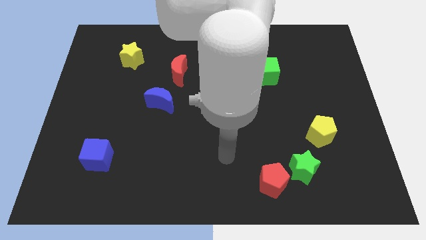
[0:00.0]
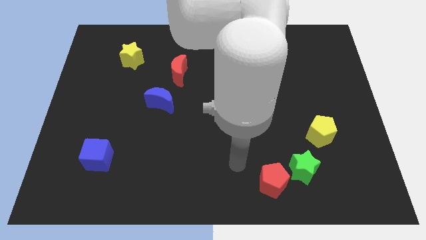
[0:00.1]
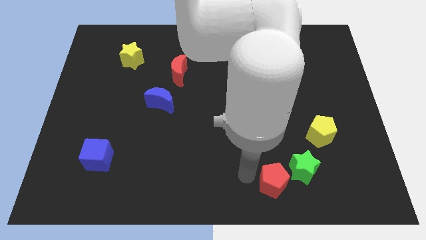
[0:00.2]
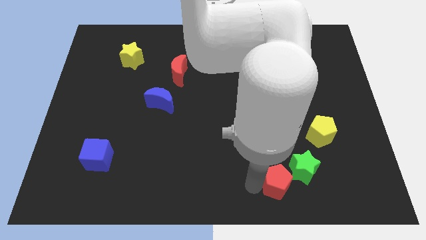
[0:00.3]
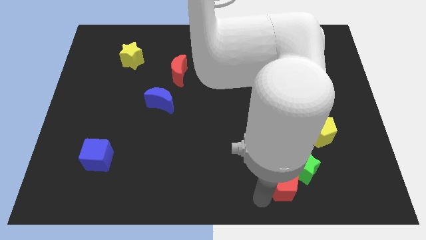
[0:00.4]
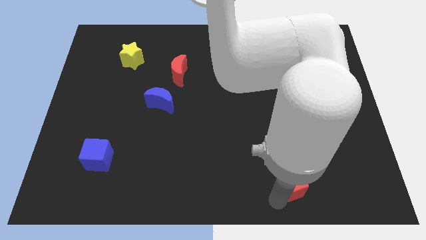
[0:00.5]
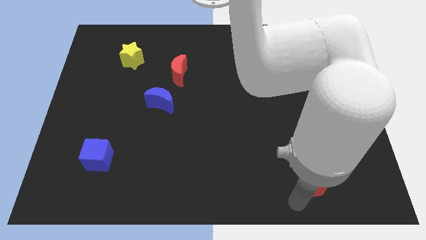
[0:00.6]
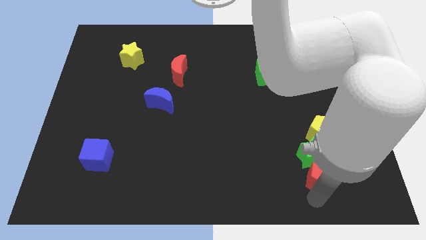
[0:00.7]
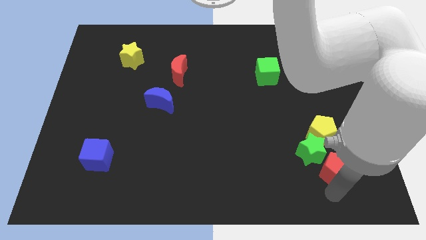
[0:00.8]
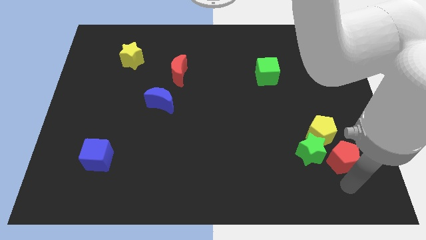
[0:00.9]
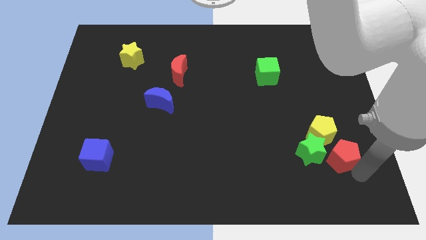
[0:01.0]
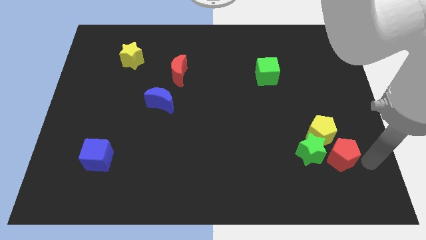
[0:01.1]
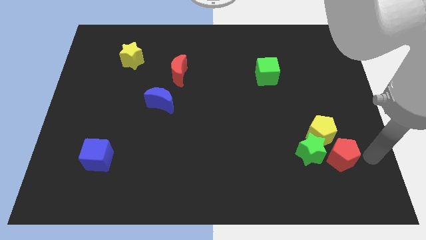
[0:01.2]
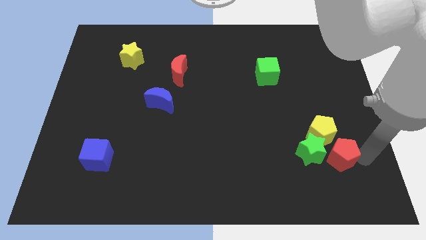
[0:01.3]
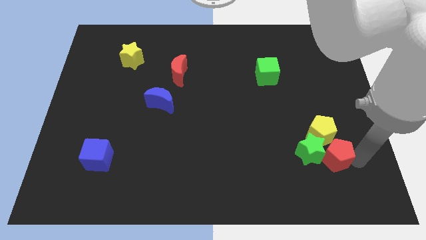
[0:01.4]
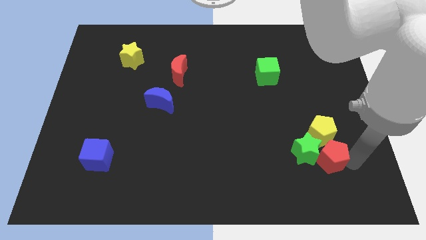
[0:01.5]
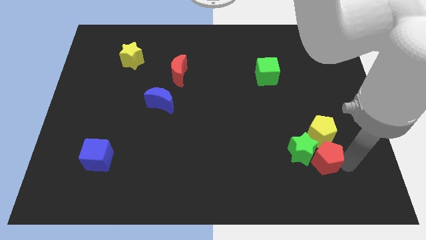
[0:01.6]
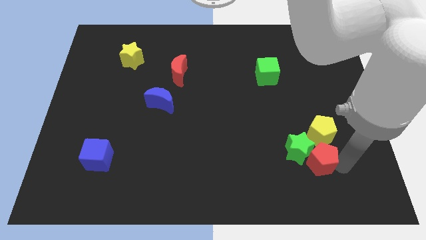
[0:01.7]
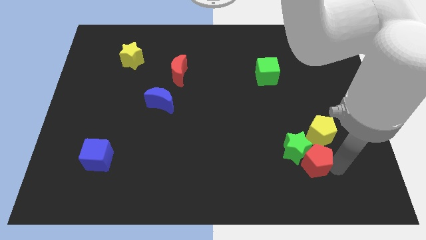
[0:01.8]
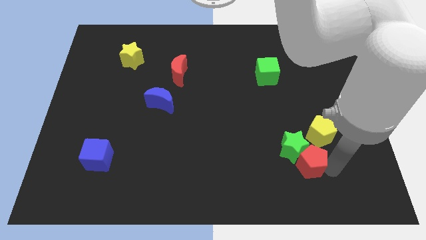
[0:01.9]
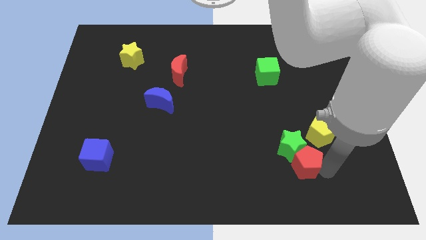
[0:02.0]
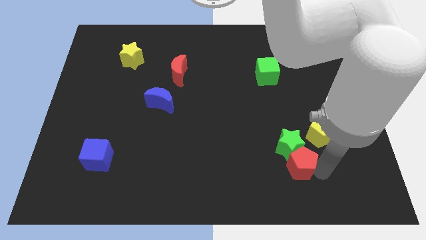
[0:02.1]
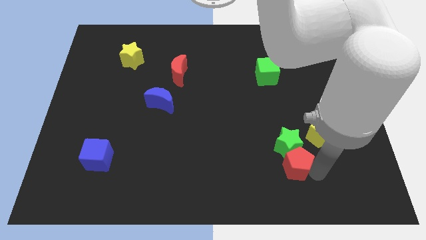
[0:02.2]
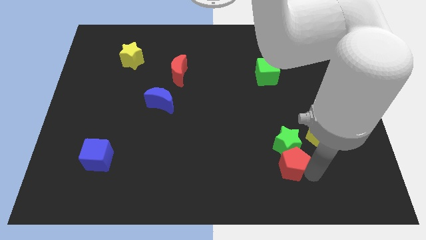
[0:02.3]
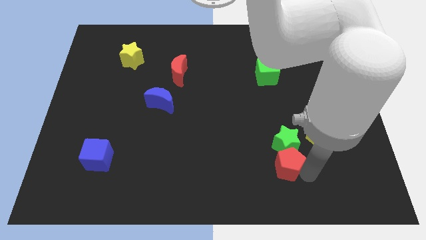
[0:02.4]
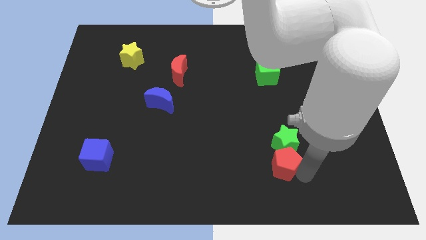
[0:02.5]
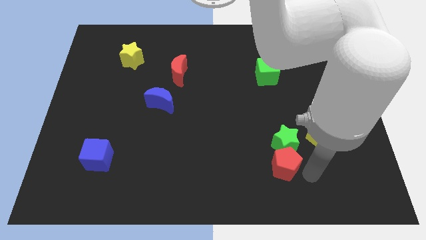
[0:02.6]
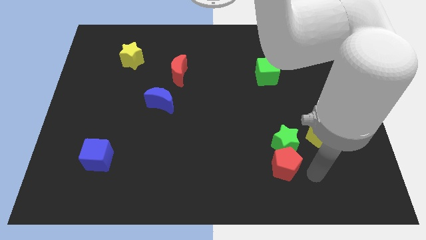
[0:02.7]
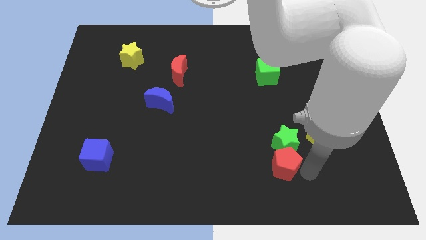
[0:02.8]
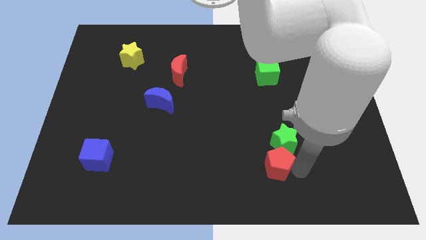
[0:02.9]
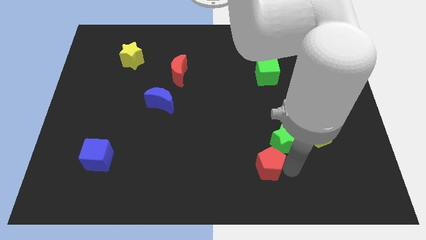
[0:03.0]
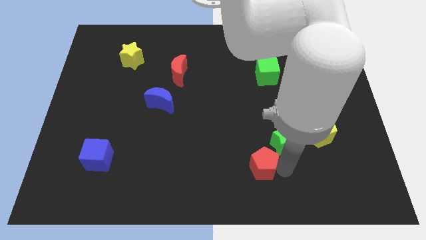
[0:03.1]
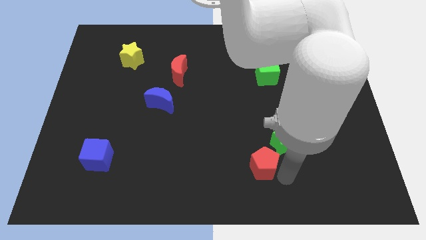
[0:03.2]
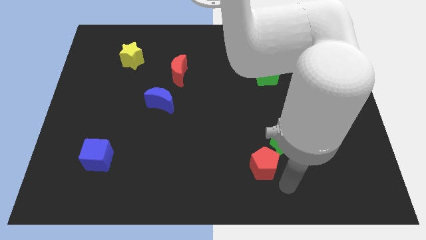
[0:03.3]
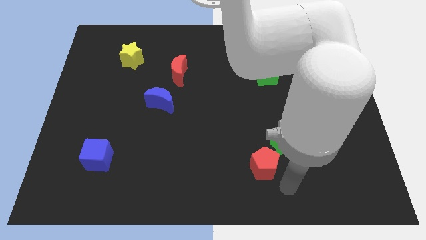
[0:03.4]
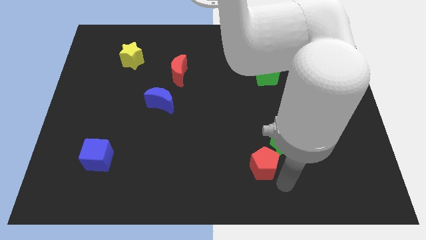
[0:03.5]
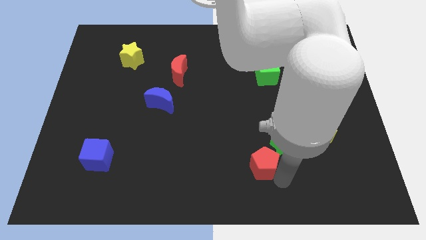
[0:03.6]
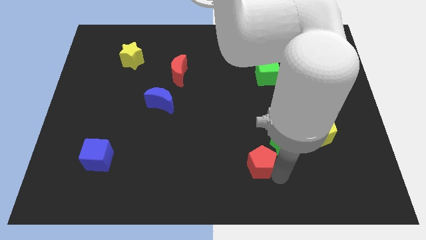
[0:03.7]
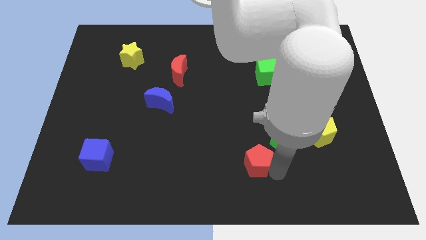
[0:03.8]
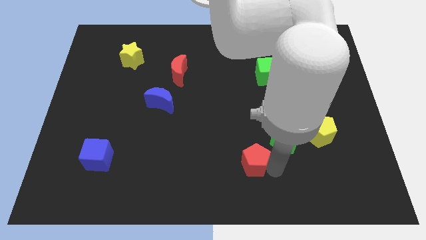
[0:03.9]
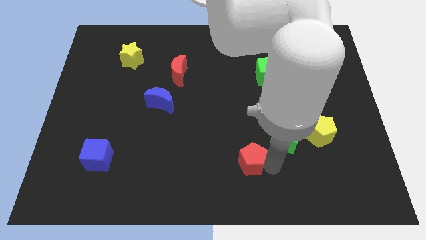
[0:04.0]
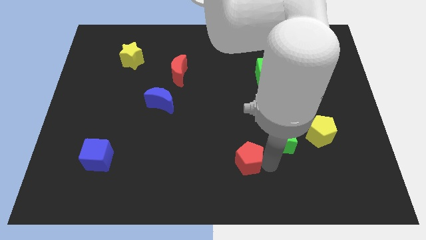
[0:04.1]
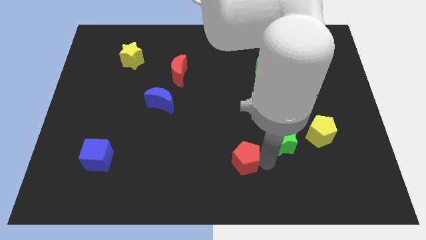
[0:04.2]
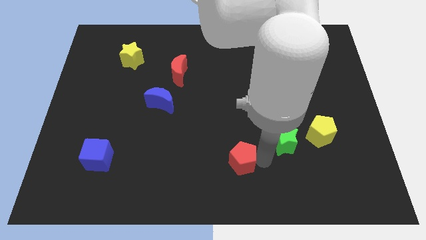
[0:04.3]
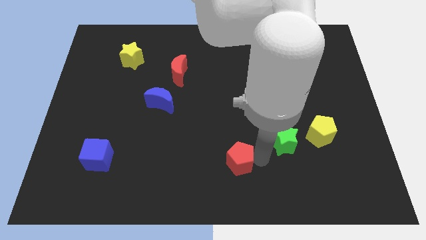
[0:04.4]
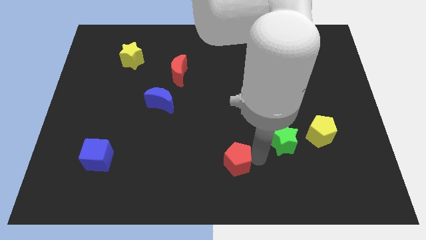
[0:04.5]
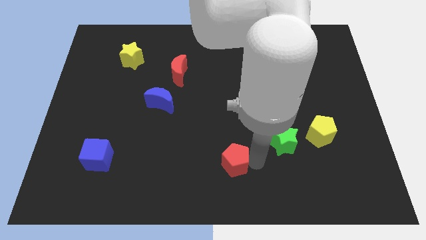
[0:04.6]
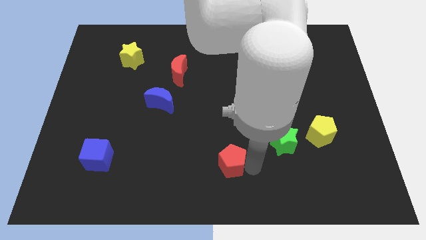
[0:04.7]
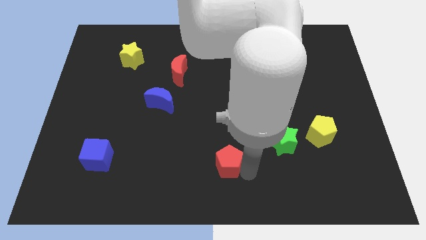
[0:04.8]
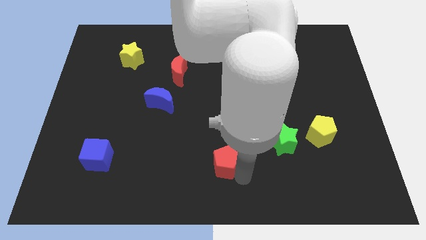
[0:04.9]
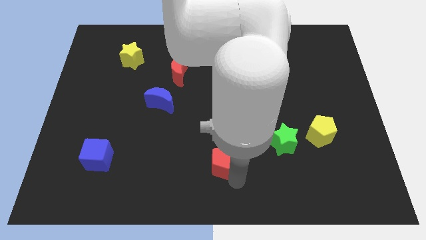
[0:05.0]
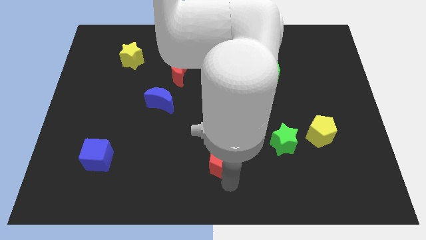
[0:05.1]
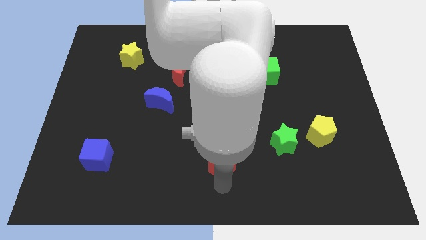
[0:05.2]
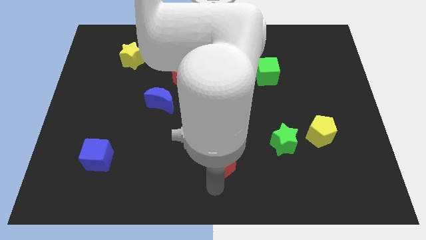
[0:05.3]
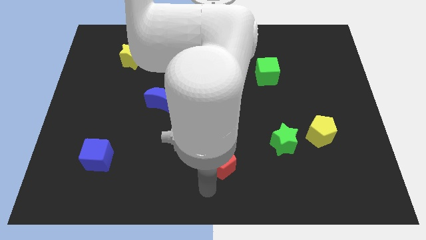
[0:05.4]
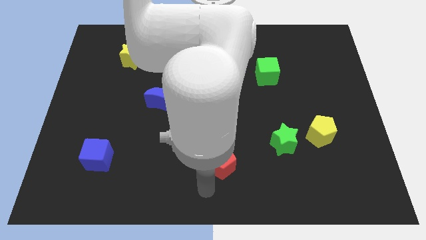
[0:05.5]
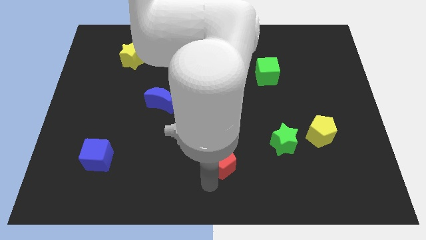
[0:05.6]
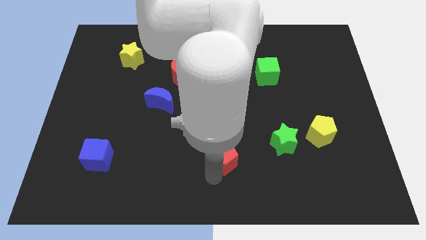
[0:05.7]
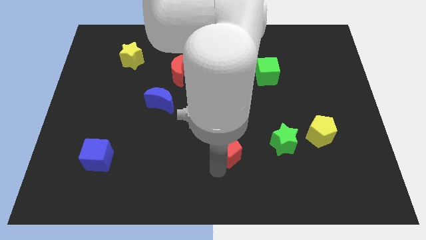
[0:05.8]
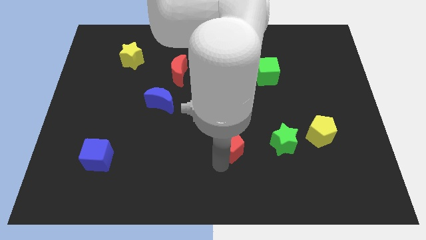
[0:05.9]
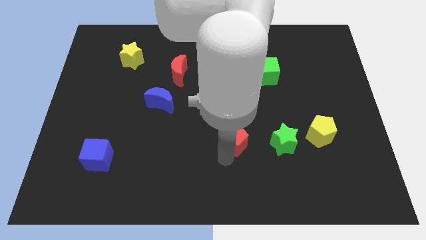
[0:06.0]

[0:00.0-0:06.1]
move the red pentagon to the center
